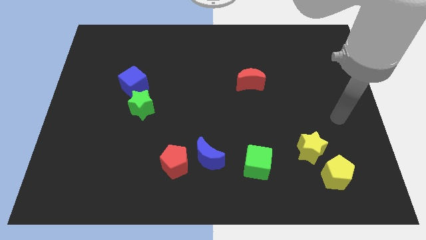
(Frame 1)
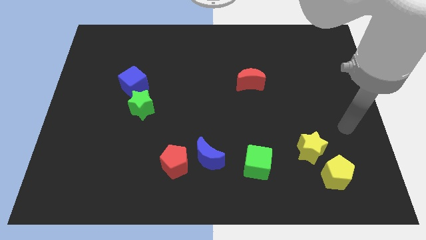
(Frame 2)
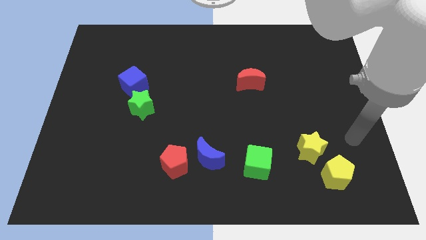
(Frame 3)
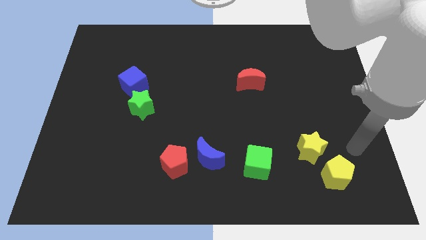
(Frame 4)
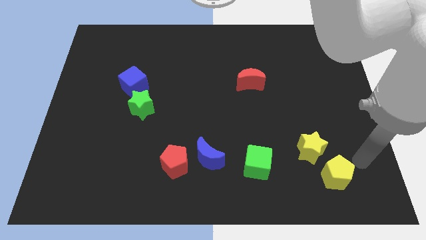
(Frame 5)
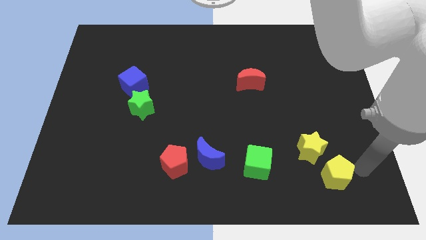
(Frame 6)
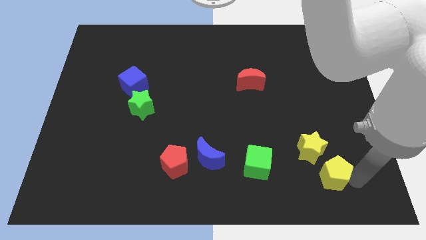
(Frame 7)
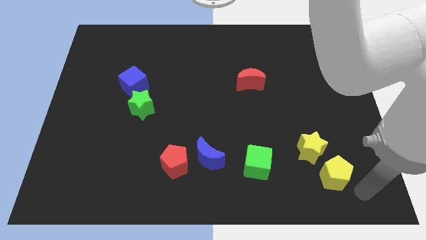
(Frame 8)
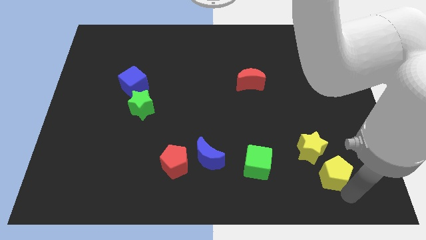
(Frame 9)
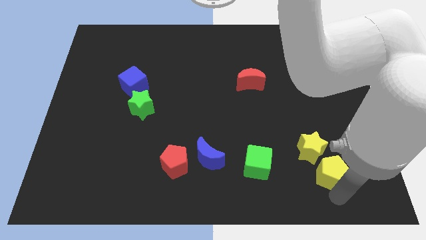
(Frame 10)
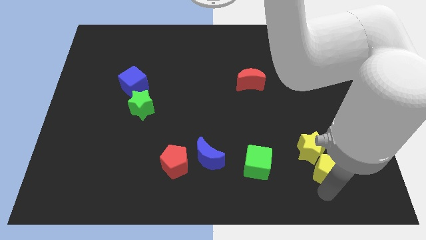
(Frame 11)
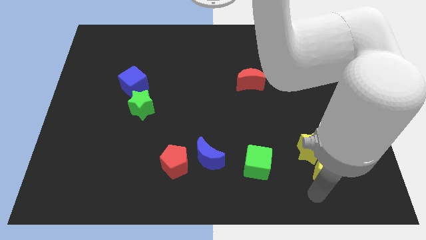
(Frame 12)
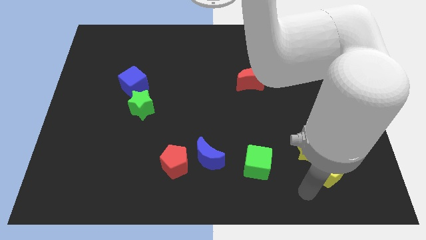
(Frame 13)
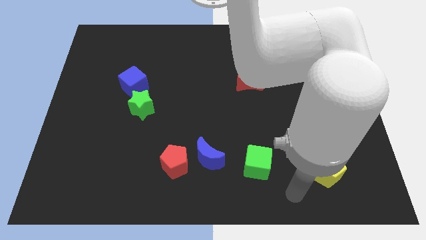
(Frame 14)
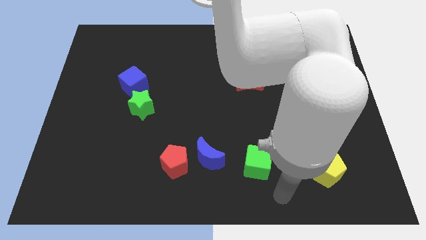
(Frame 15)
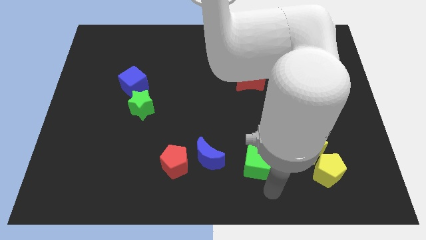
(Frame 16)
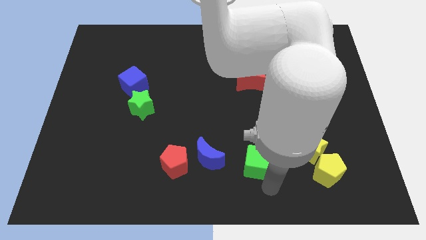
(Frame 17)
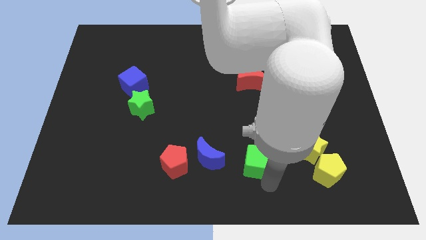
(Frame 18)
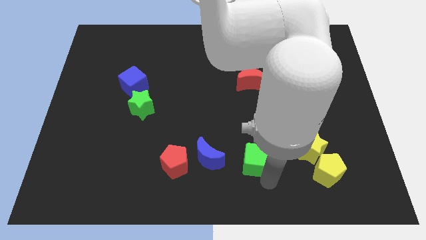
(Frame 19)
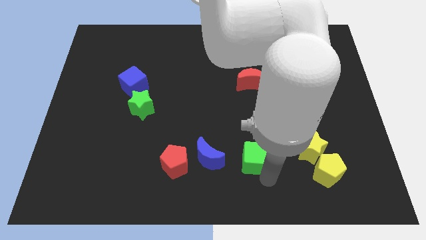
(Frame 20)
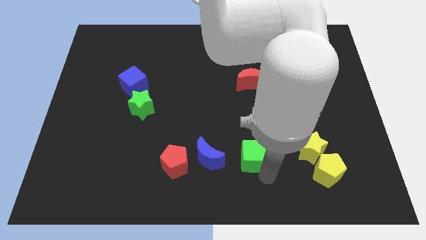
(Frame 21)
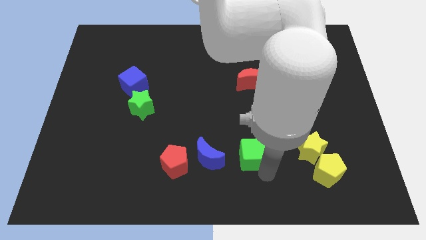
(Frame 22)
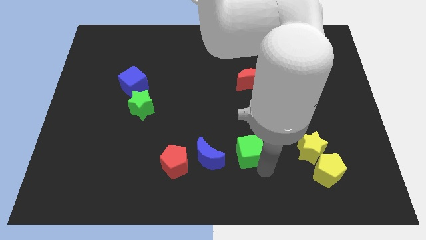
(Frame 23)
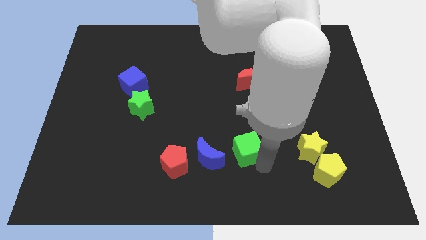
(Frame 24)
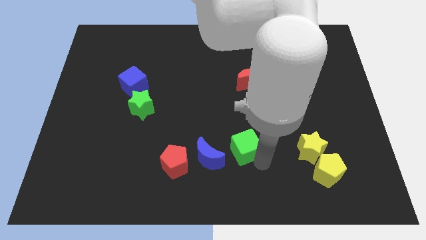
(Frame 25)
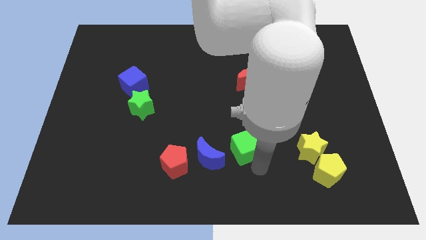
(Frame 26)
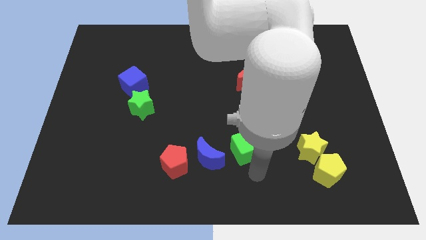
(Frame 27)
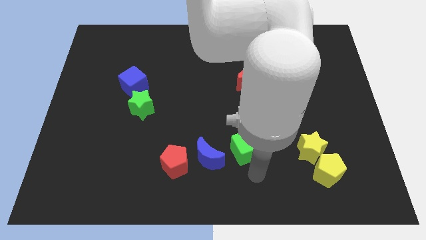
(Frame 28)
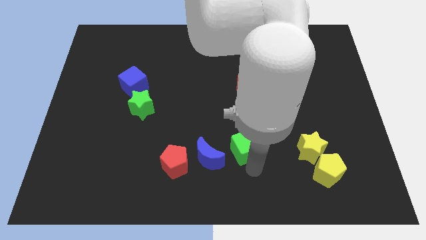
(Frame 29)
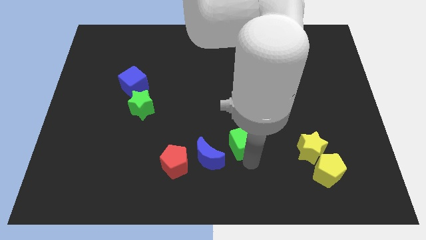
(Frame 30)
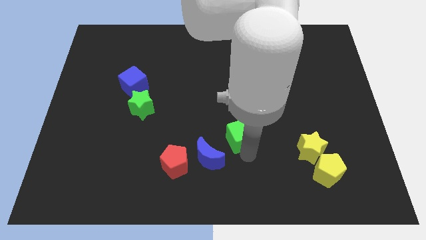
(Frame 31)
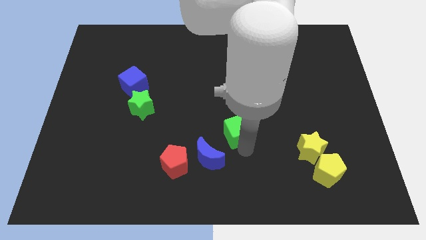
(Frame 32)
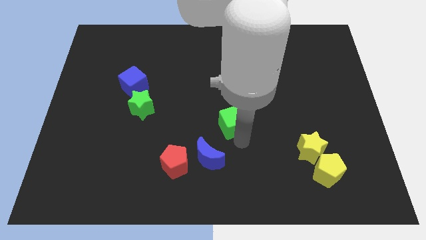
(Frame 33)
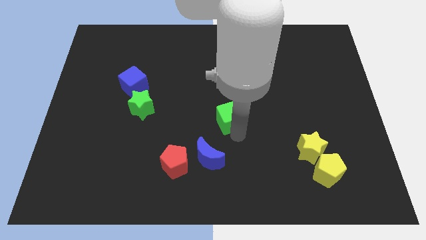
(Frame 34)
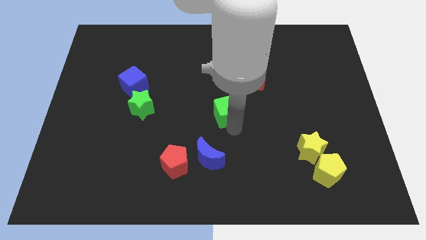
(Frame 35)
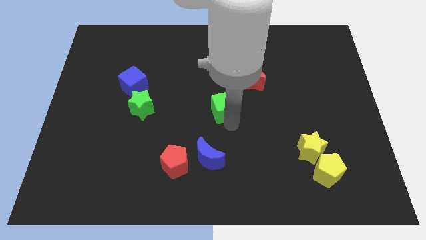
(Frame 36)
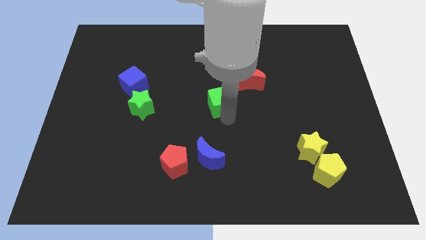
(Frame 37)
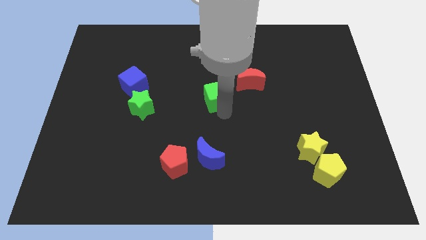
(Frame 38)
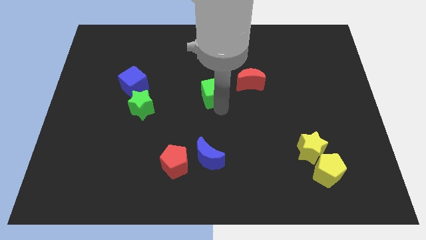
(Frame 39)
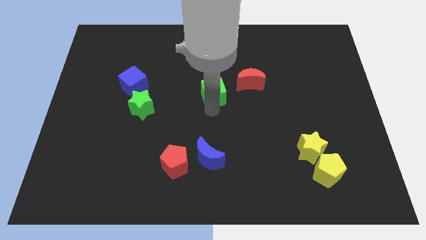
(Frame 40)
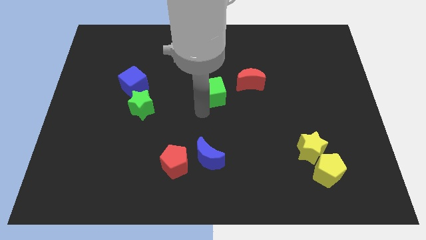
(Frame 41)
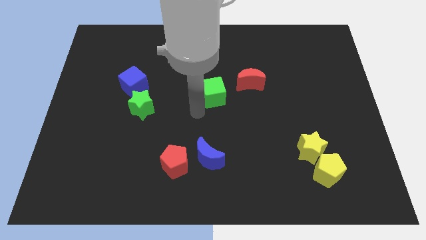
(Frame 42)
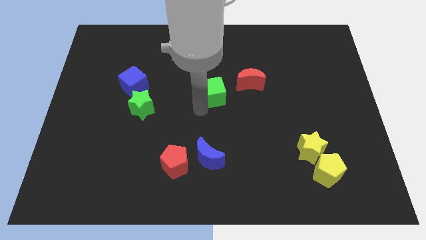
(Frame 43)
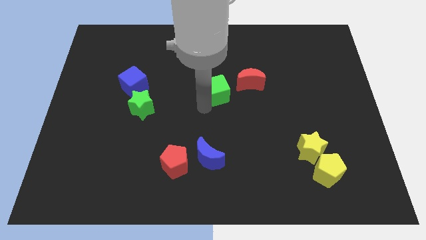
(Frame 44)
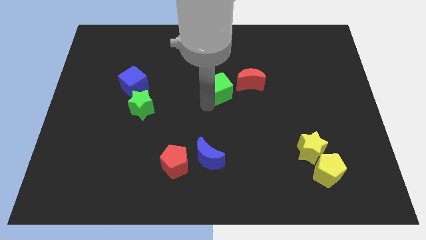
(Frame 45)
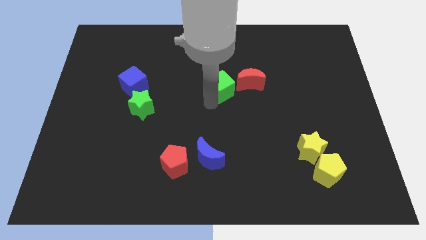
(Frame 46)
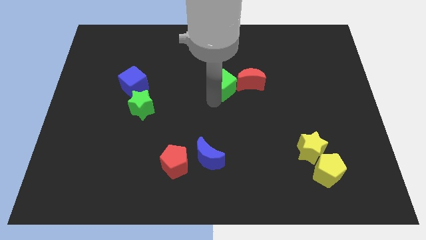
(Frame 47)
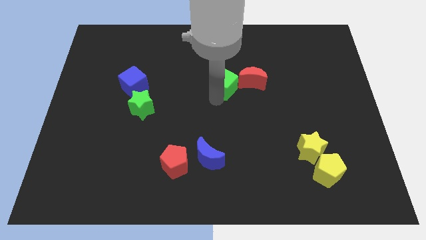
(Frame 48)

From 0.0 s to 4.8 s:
push the green cube upwards

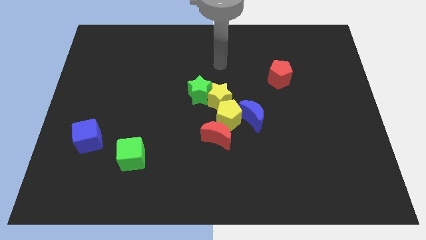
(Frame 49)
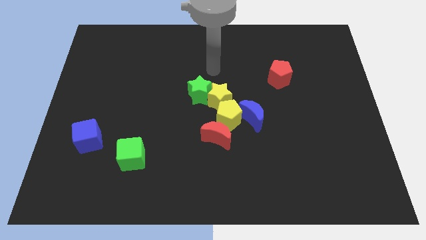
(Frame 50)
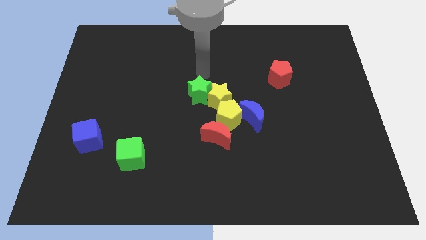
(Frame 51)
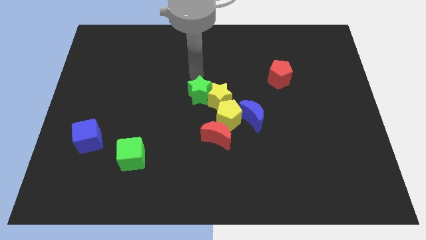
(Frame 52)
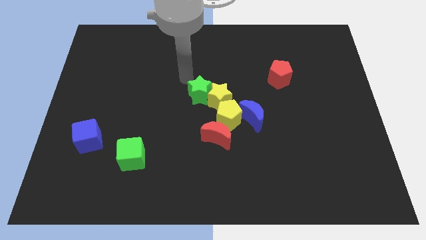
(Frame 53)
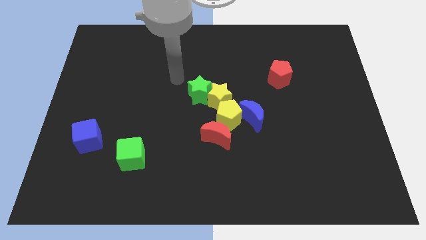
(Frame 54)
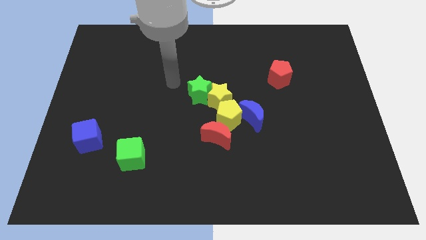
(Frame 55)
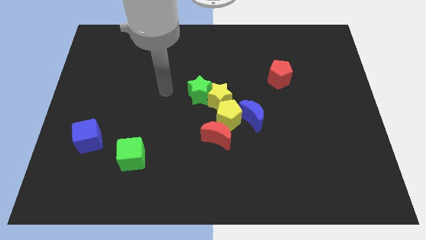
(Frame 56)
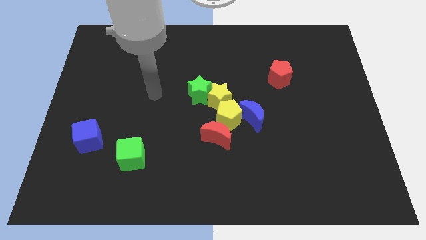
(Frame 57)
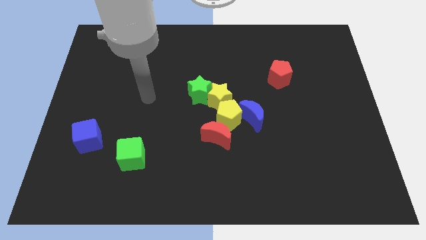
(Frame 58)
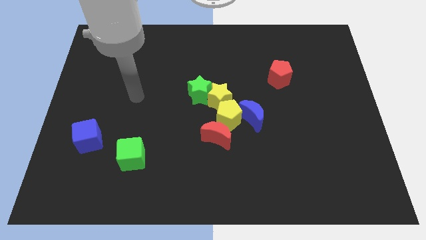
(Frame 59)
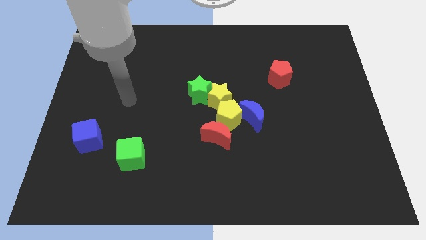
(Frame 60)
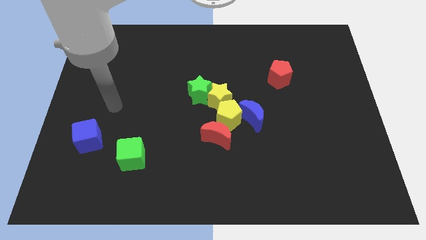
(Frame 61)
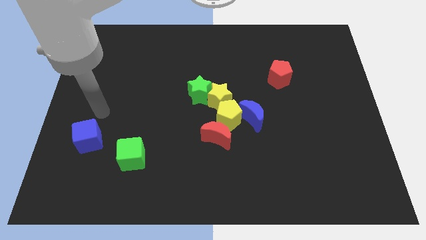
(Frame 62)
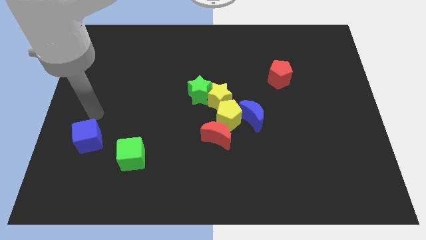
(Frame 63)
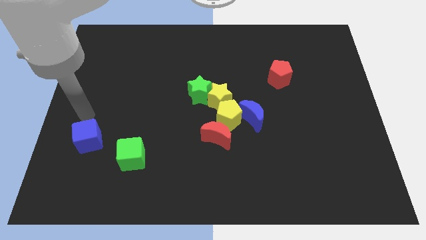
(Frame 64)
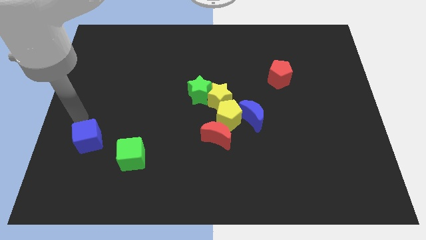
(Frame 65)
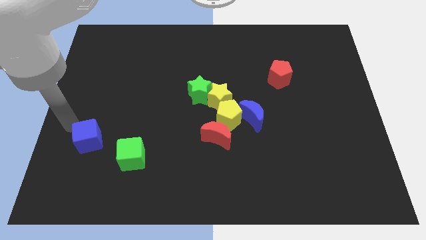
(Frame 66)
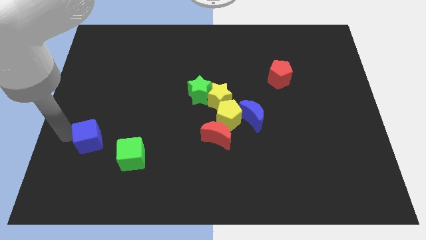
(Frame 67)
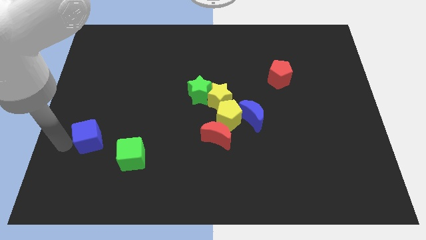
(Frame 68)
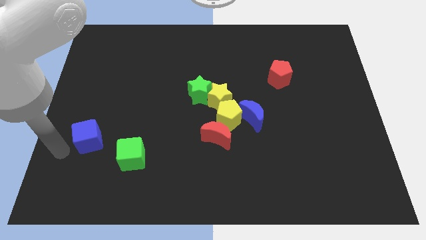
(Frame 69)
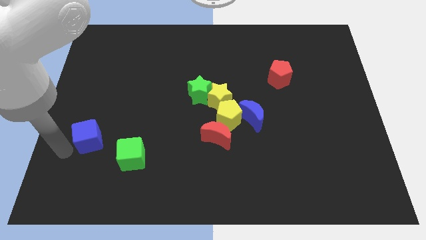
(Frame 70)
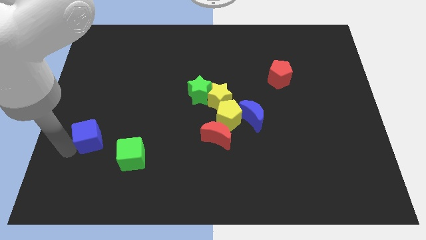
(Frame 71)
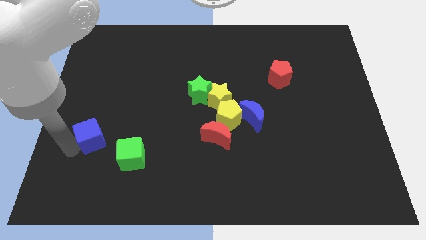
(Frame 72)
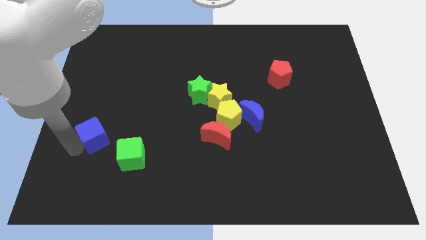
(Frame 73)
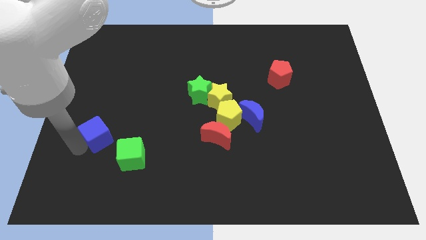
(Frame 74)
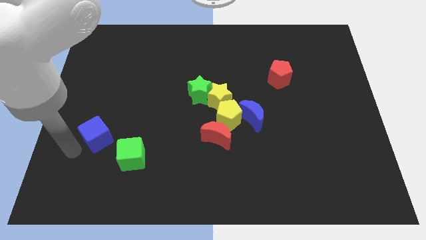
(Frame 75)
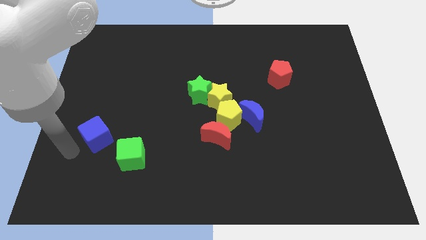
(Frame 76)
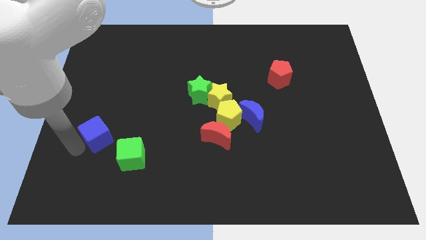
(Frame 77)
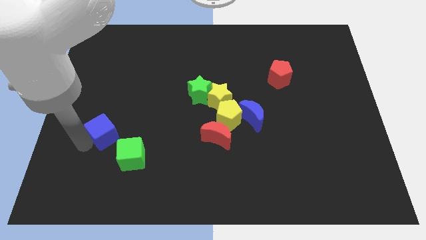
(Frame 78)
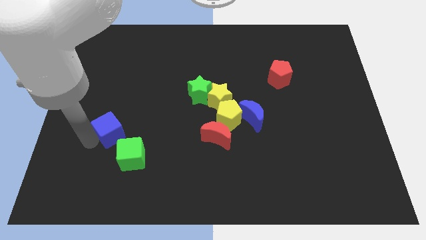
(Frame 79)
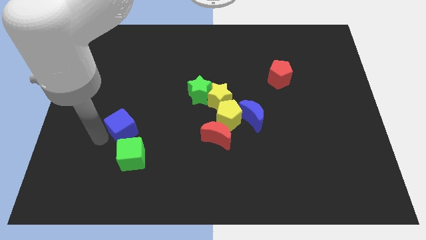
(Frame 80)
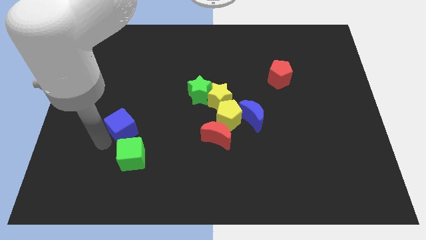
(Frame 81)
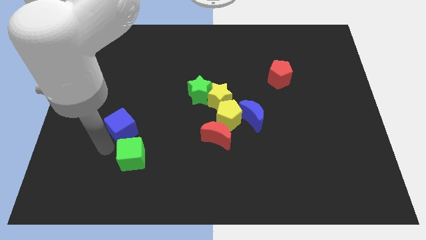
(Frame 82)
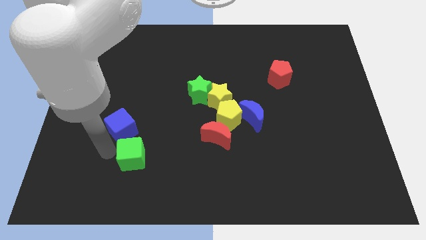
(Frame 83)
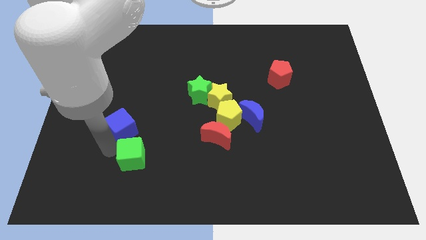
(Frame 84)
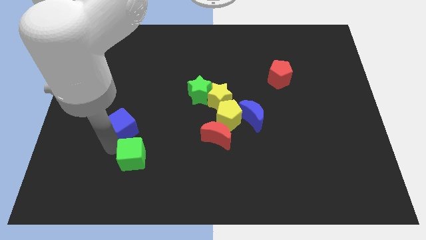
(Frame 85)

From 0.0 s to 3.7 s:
move the blue cube a little up and then right
